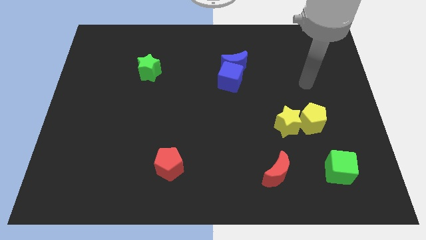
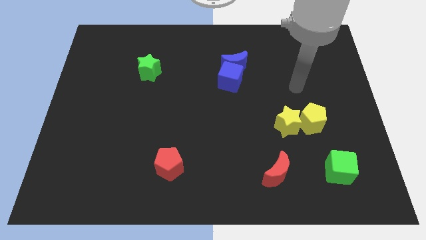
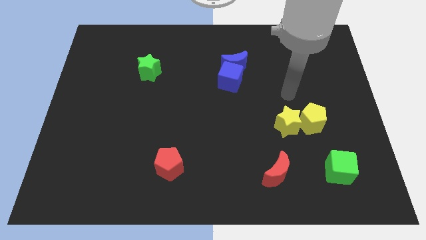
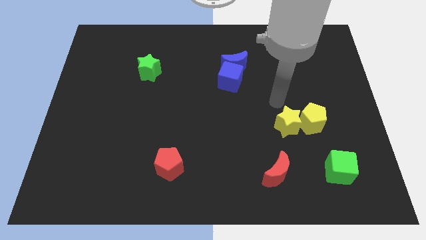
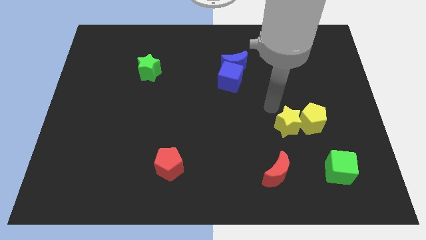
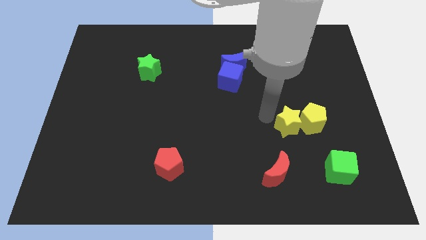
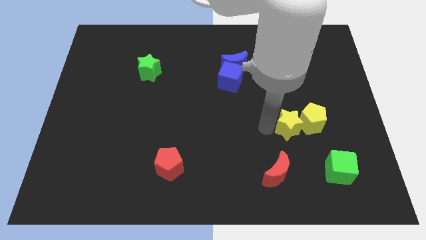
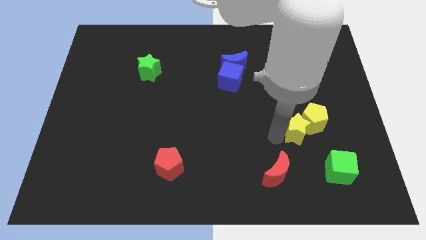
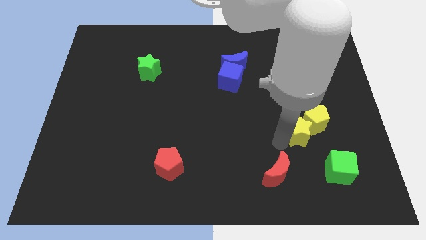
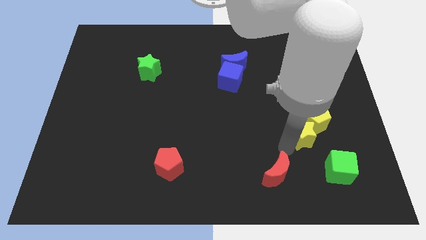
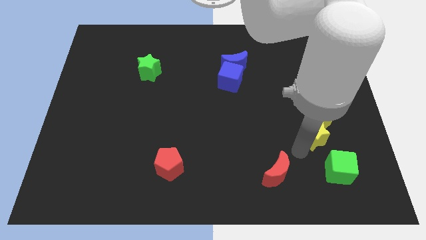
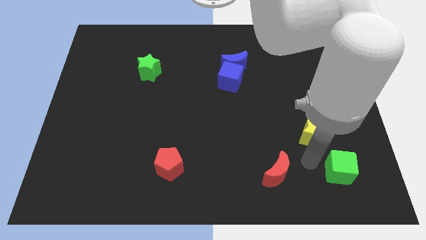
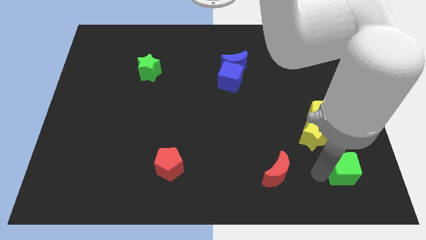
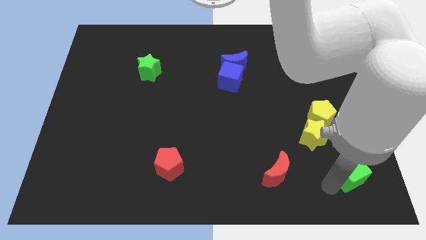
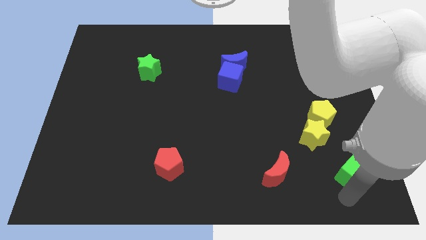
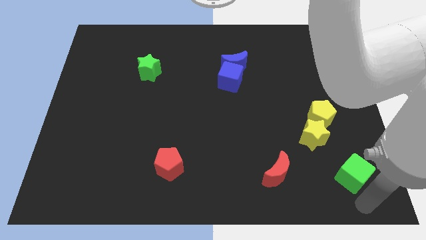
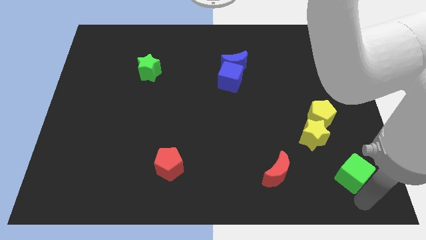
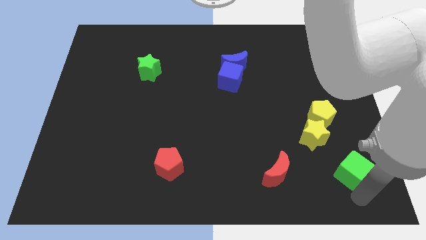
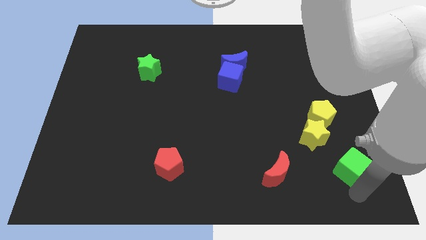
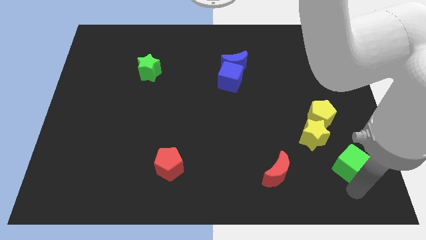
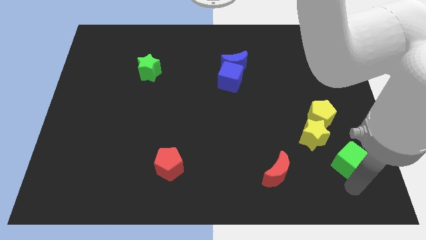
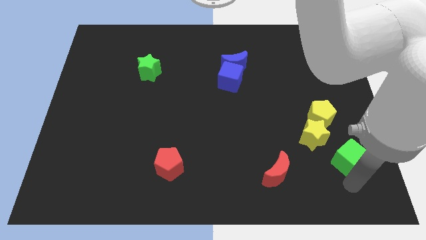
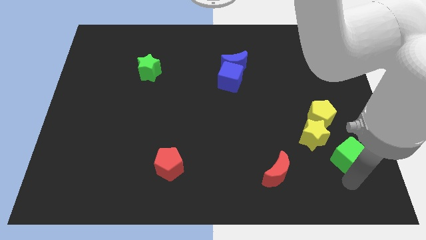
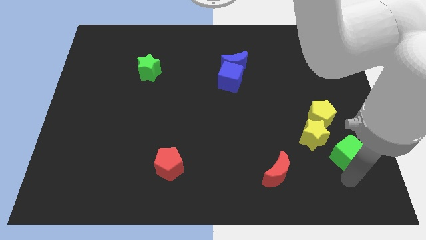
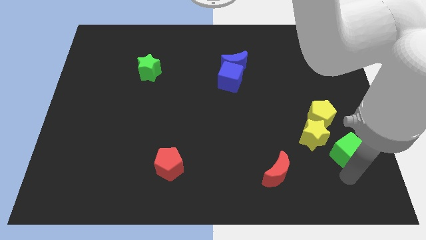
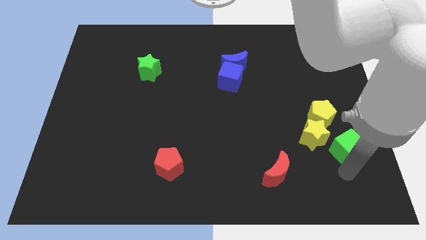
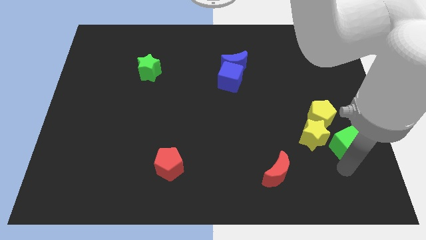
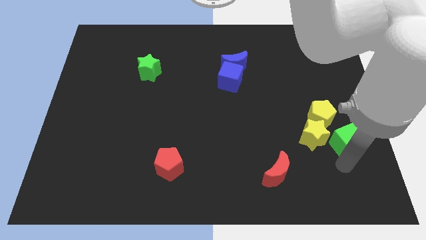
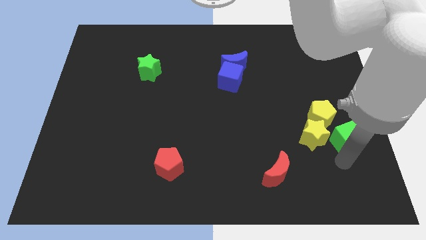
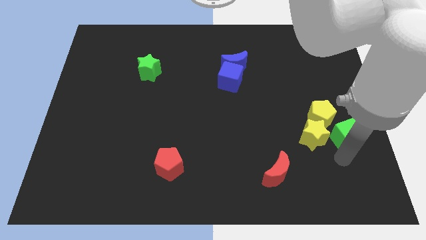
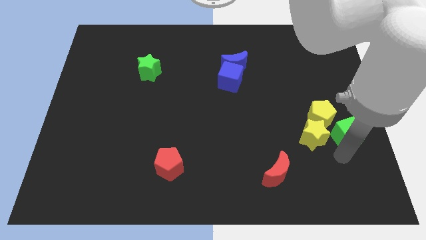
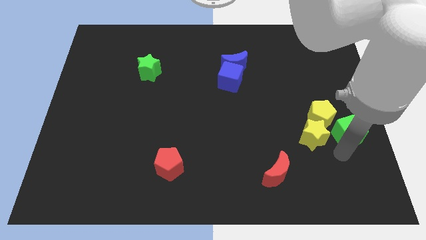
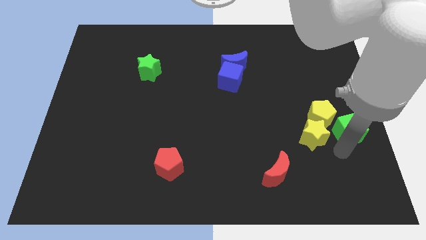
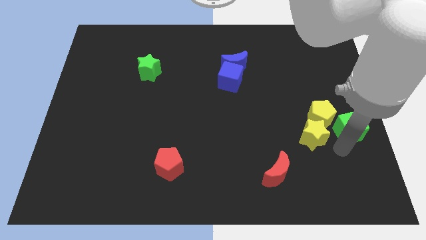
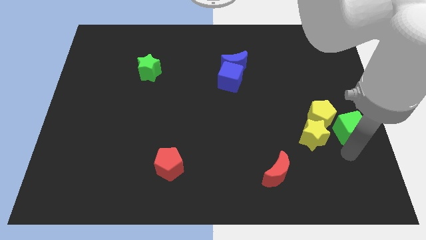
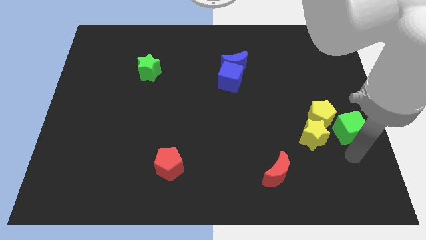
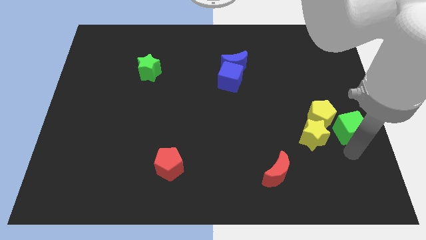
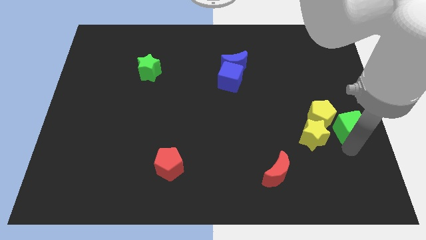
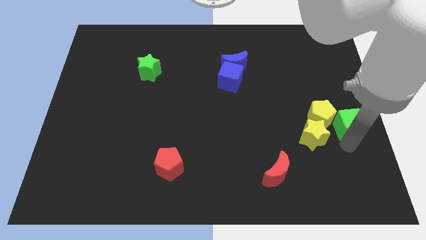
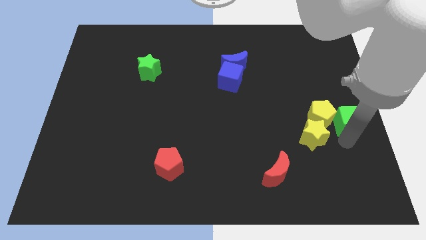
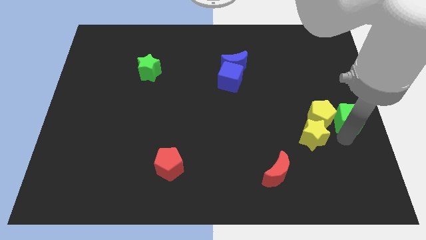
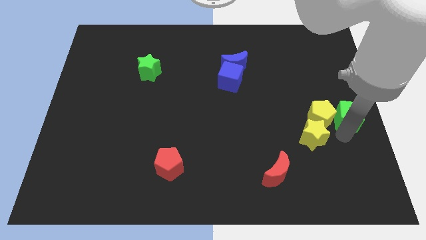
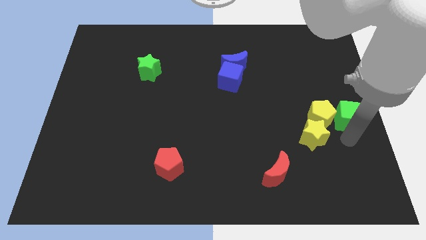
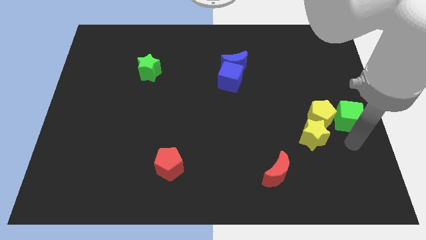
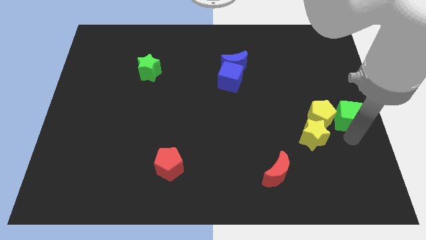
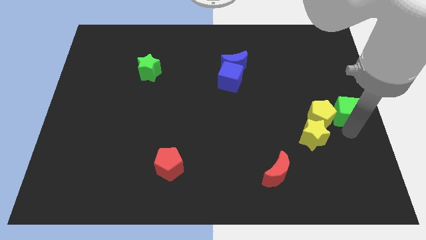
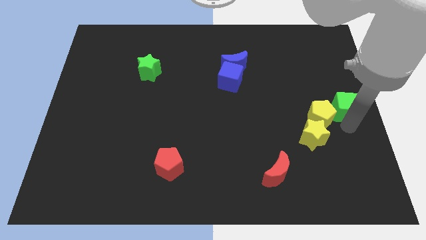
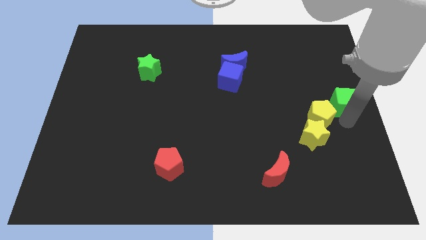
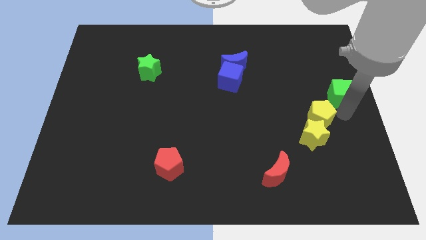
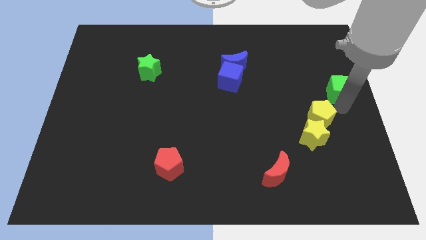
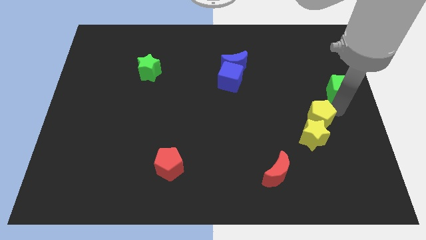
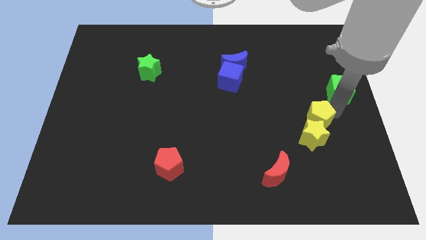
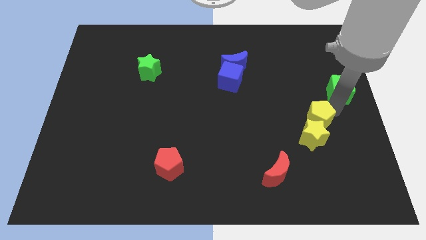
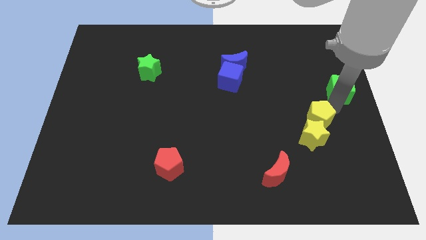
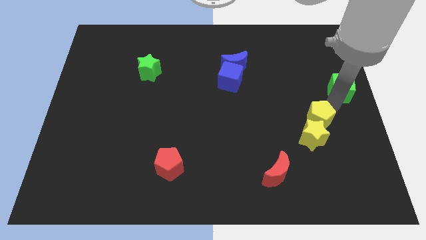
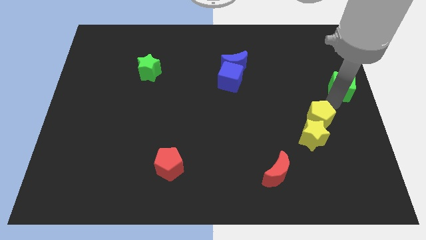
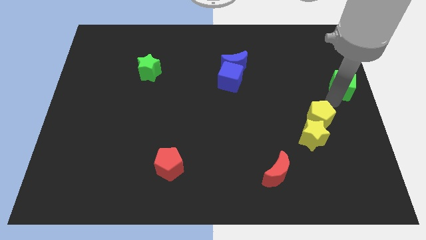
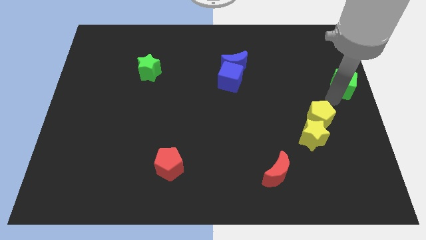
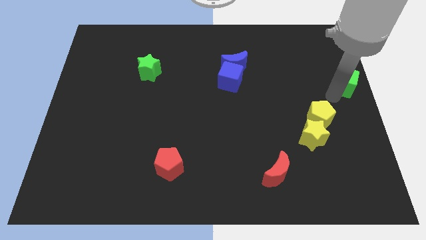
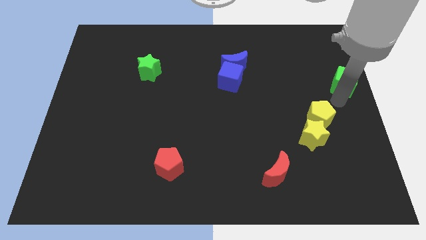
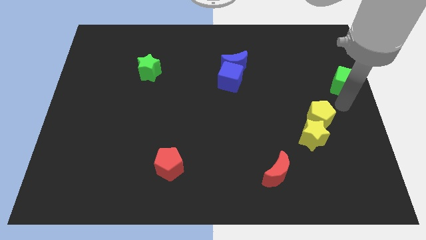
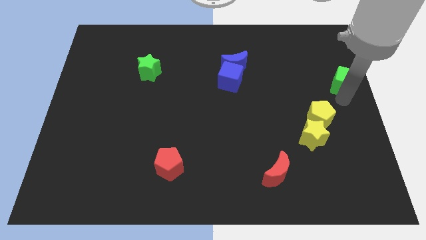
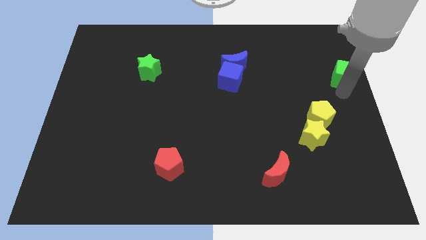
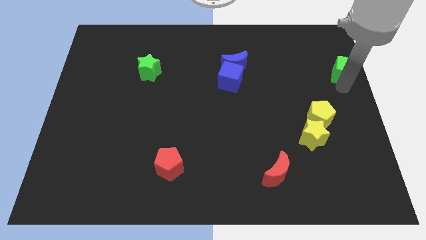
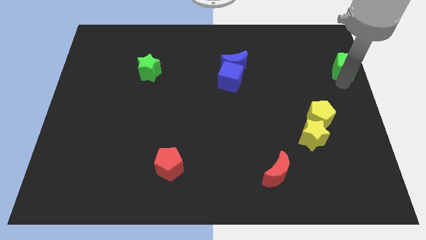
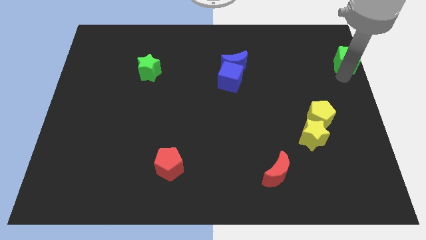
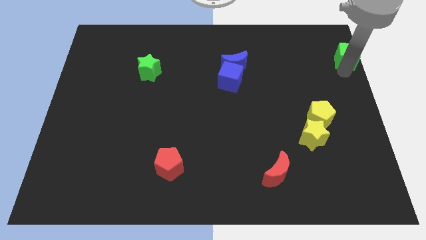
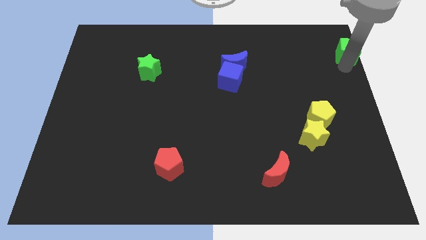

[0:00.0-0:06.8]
put the green cube to the top right
